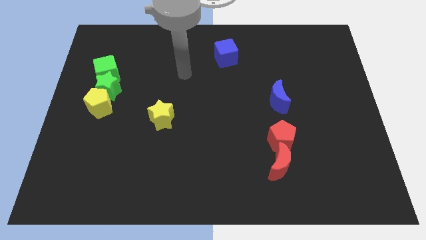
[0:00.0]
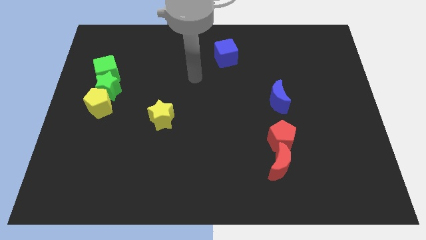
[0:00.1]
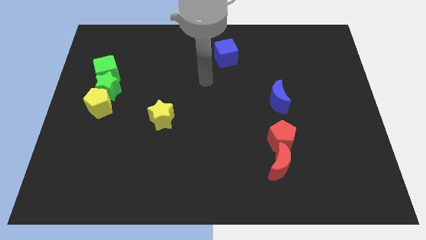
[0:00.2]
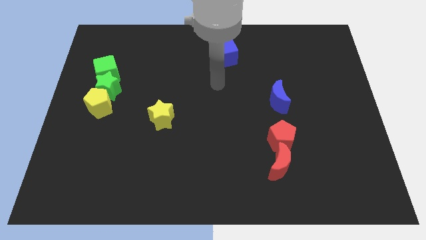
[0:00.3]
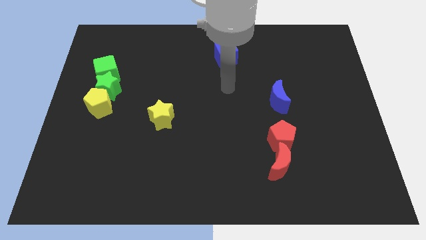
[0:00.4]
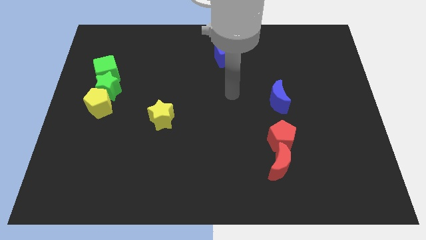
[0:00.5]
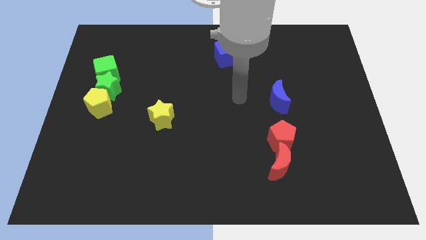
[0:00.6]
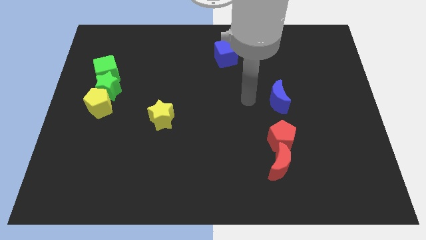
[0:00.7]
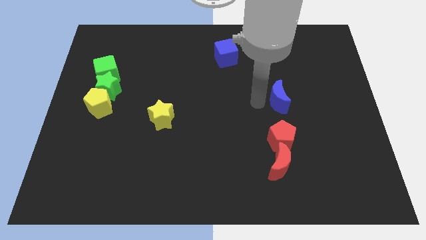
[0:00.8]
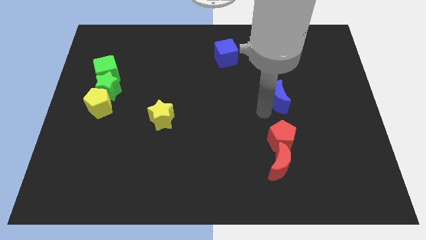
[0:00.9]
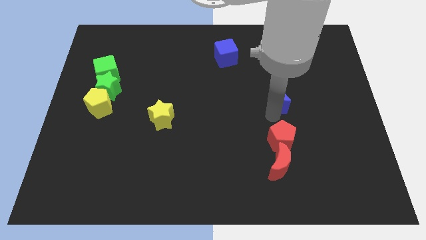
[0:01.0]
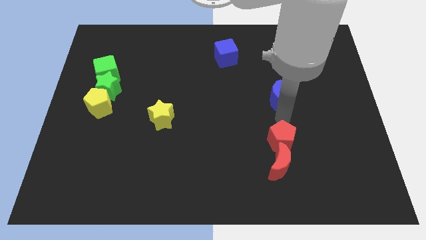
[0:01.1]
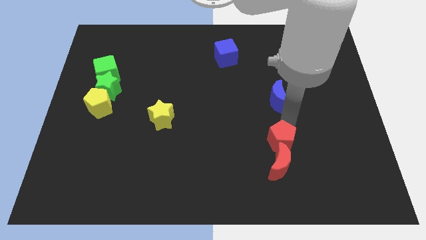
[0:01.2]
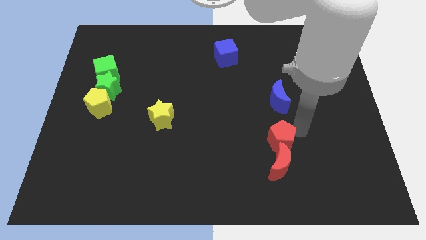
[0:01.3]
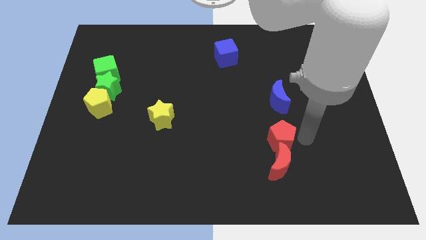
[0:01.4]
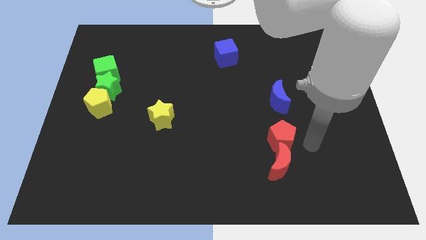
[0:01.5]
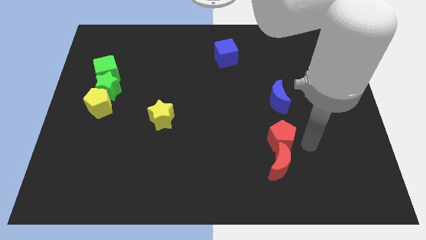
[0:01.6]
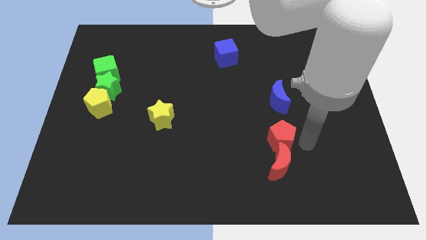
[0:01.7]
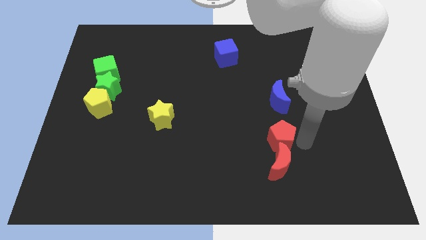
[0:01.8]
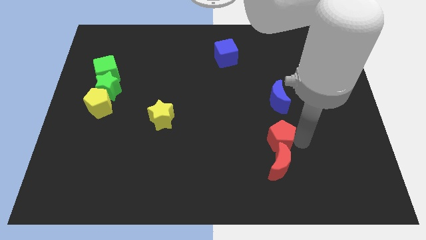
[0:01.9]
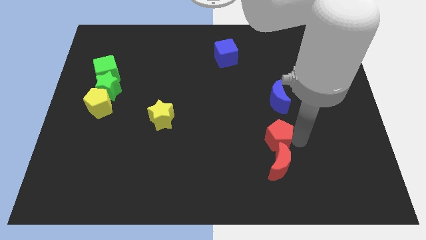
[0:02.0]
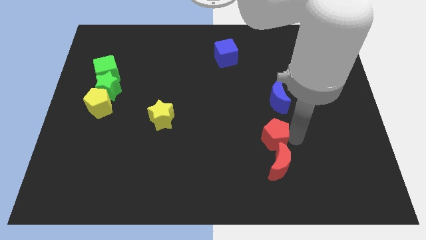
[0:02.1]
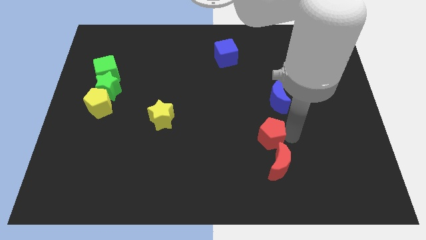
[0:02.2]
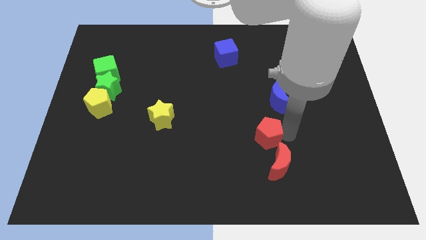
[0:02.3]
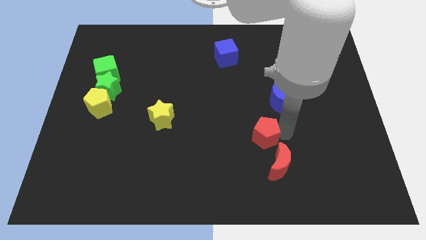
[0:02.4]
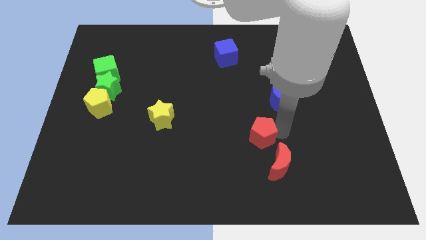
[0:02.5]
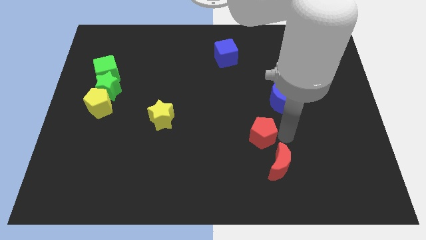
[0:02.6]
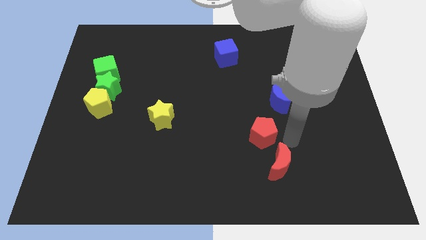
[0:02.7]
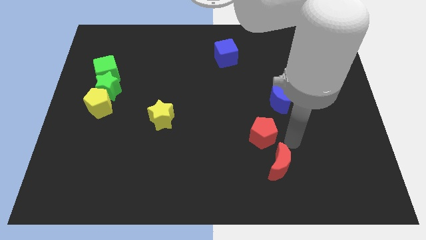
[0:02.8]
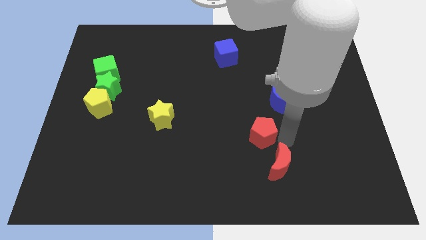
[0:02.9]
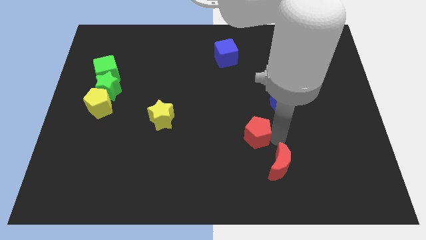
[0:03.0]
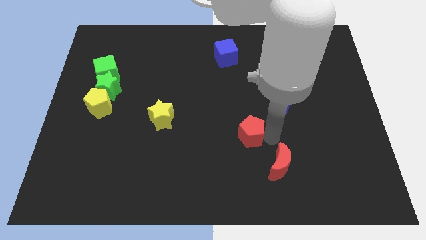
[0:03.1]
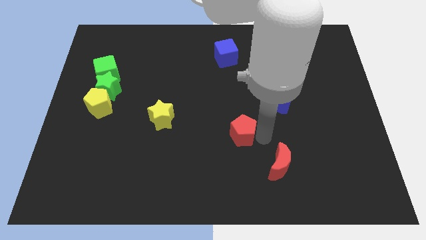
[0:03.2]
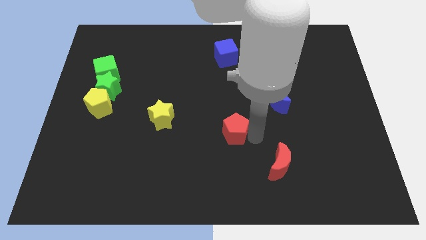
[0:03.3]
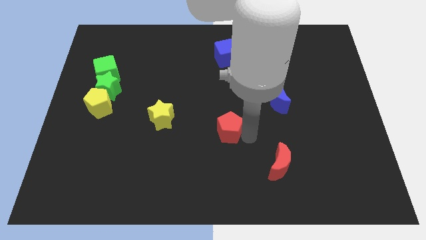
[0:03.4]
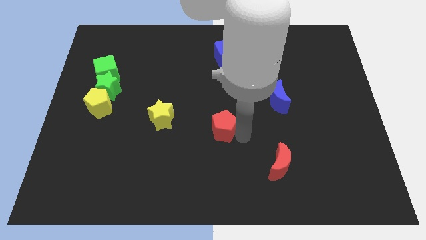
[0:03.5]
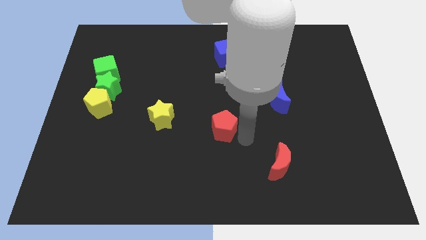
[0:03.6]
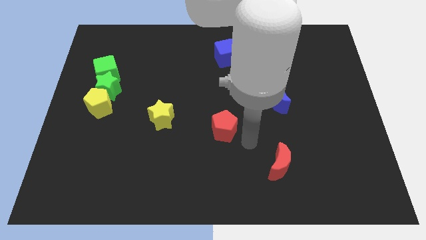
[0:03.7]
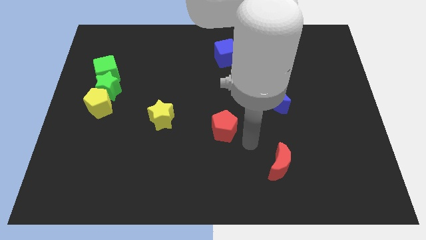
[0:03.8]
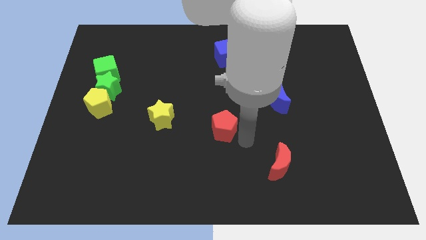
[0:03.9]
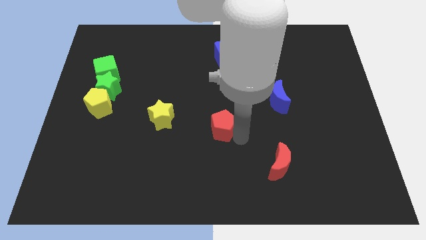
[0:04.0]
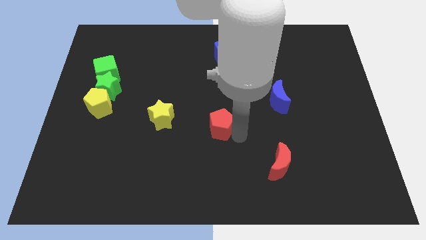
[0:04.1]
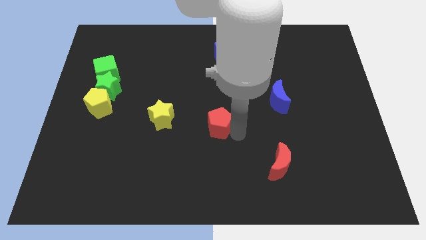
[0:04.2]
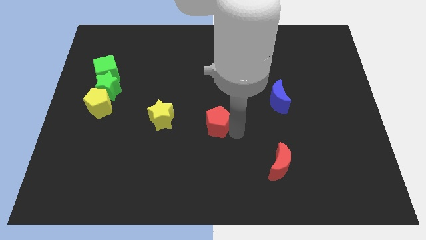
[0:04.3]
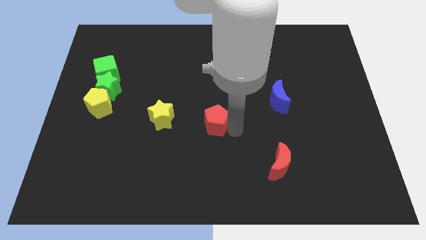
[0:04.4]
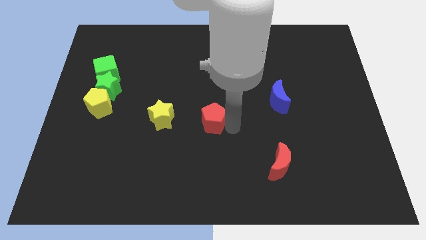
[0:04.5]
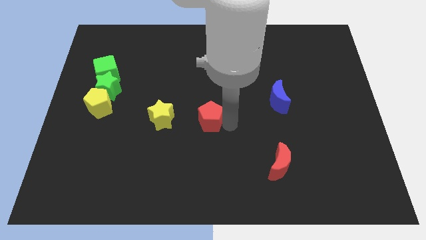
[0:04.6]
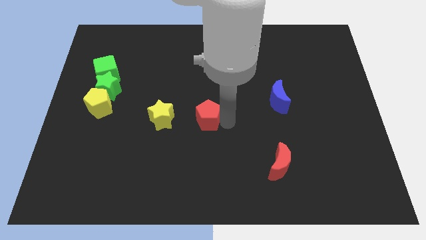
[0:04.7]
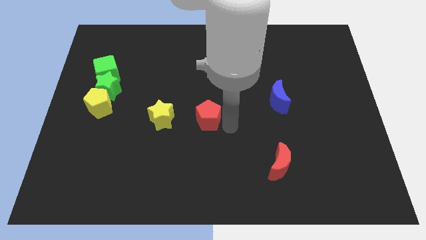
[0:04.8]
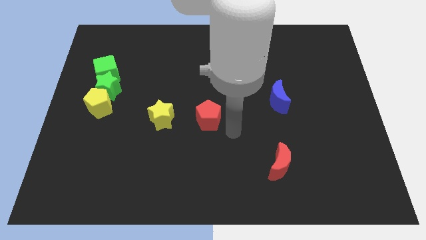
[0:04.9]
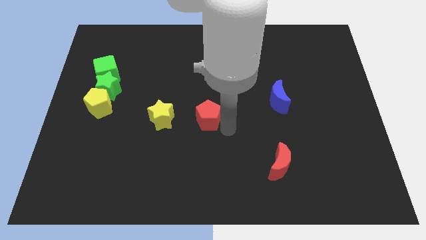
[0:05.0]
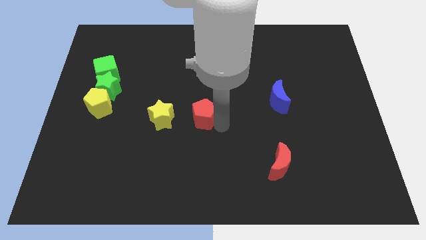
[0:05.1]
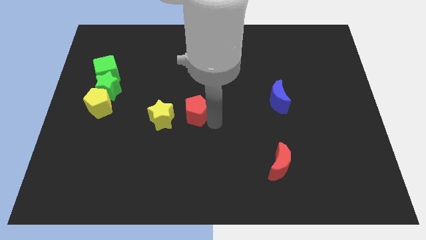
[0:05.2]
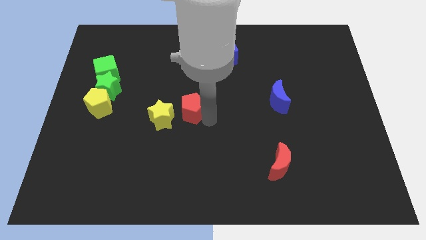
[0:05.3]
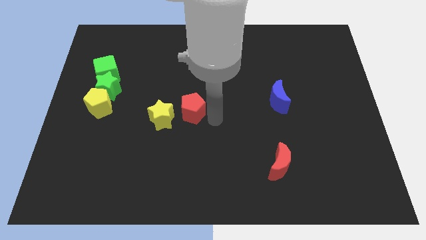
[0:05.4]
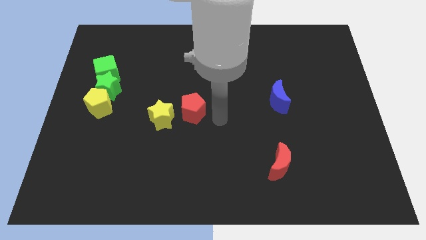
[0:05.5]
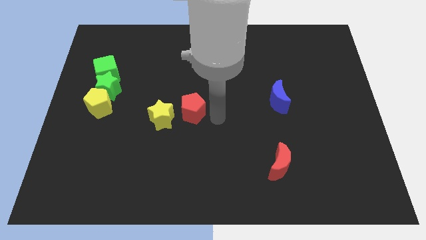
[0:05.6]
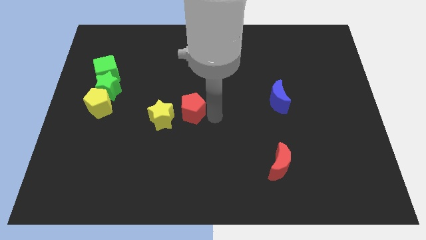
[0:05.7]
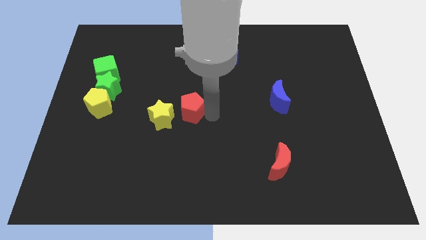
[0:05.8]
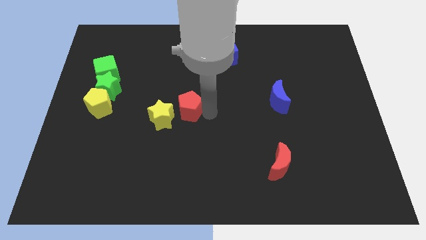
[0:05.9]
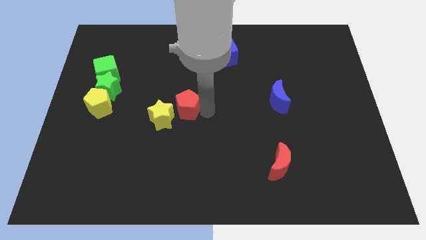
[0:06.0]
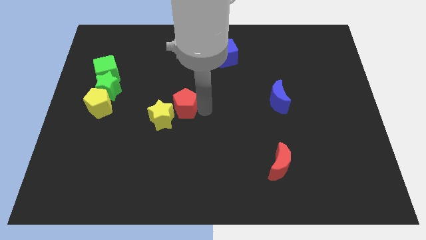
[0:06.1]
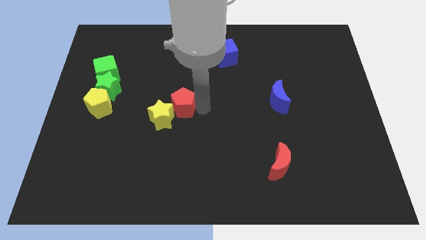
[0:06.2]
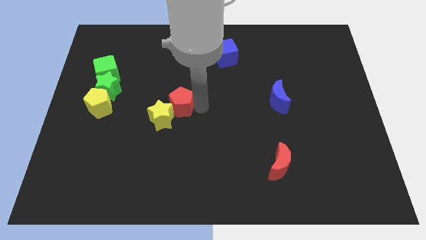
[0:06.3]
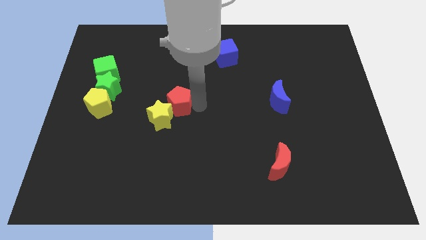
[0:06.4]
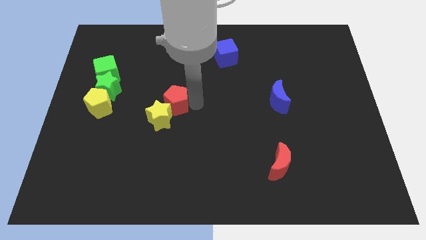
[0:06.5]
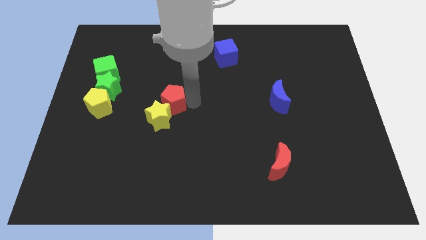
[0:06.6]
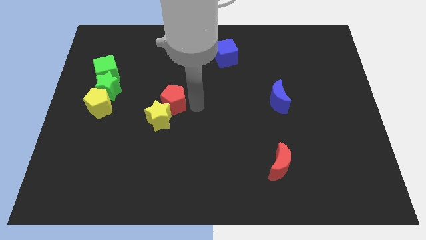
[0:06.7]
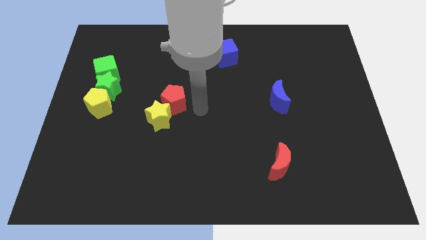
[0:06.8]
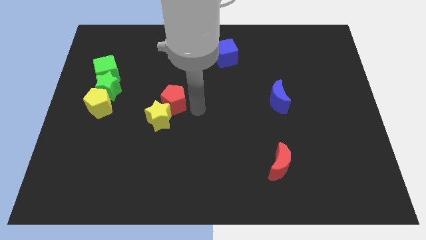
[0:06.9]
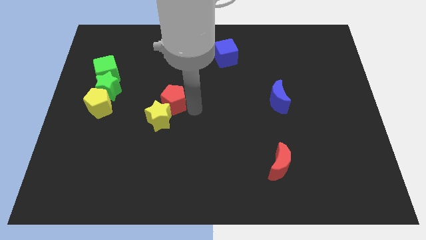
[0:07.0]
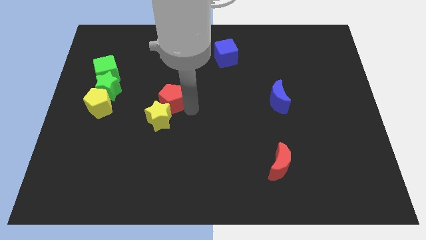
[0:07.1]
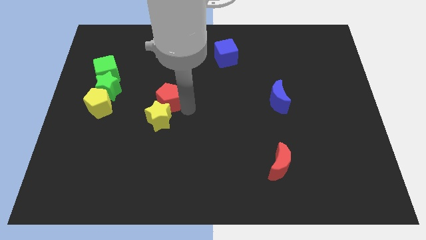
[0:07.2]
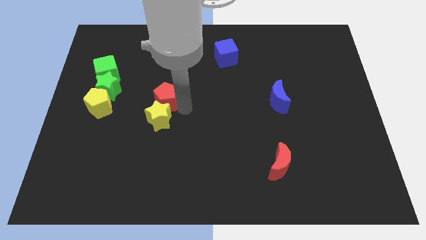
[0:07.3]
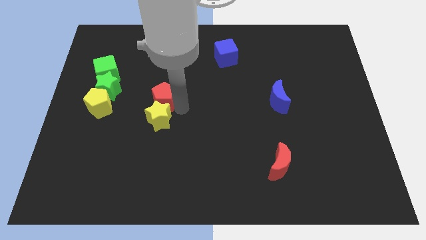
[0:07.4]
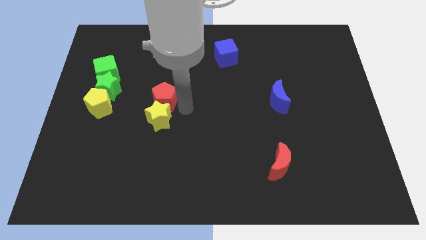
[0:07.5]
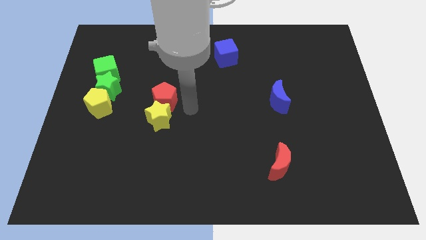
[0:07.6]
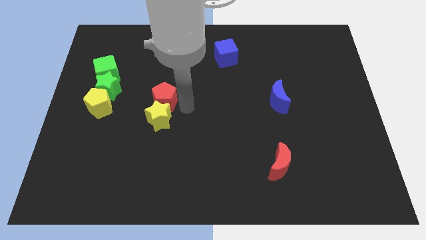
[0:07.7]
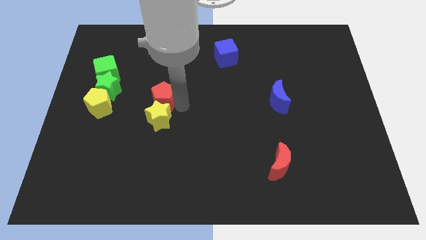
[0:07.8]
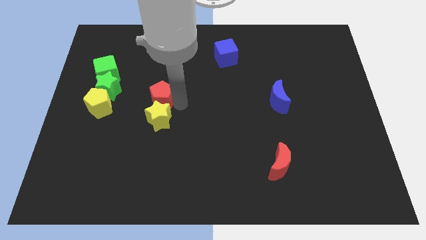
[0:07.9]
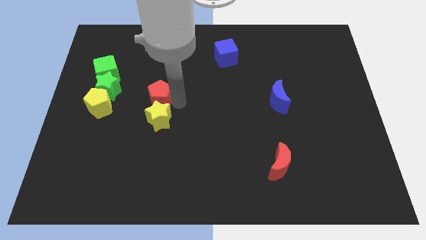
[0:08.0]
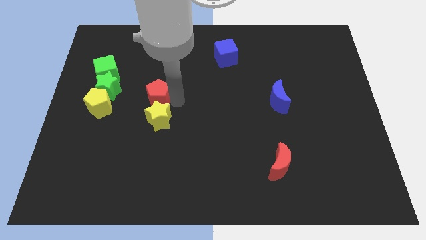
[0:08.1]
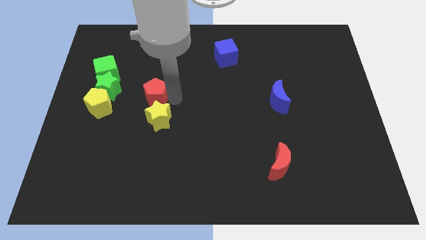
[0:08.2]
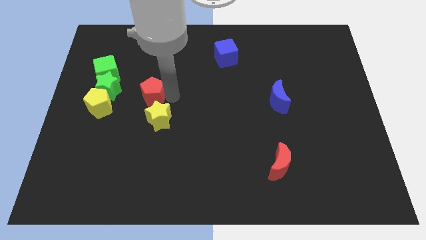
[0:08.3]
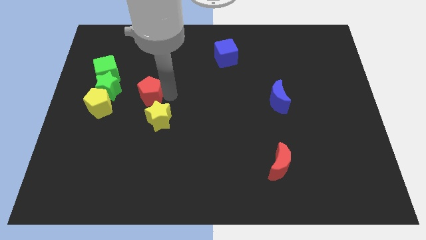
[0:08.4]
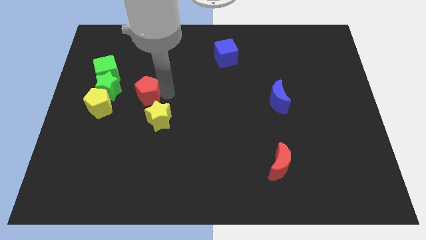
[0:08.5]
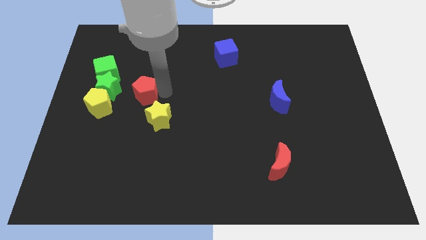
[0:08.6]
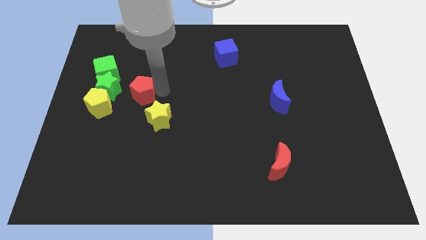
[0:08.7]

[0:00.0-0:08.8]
push the red pentagon diagonally up and to the right of the yellow pentagon
